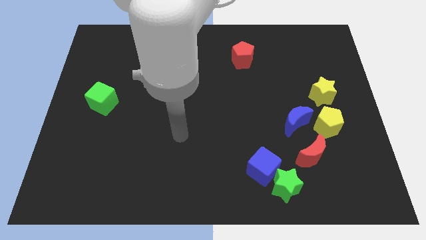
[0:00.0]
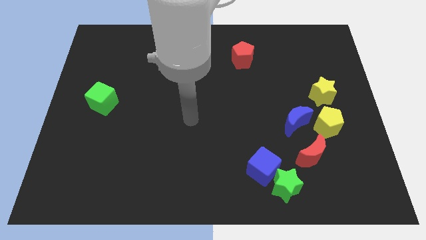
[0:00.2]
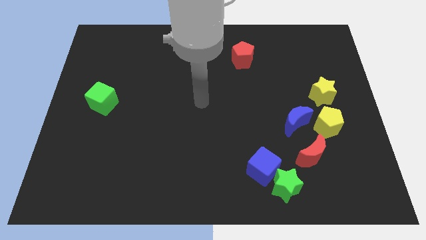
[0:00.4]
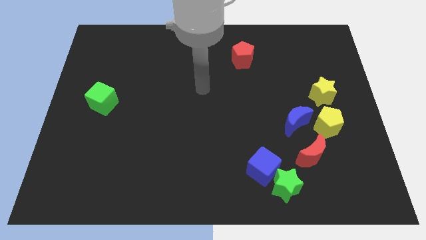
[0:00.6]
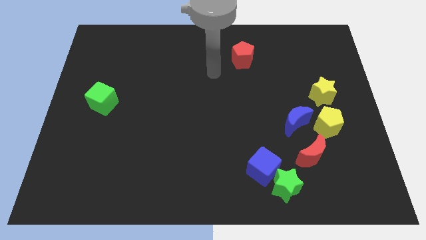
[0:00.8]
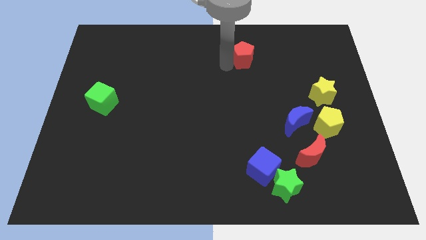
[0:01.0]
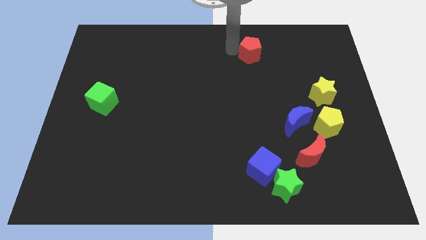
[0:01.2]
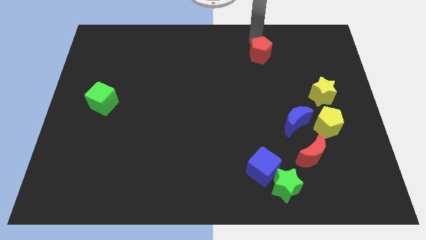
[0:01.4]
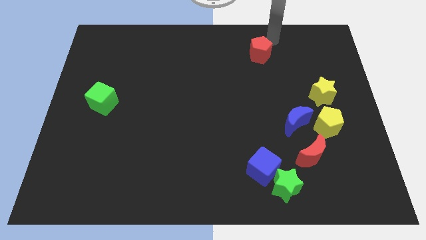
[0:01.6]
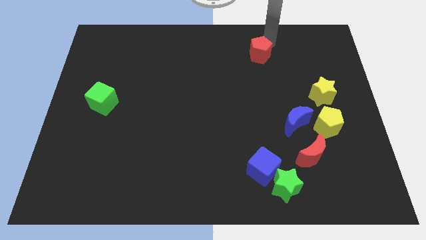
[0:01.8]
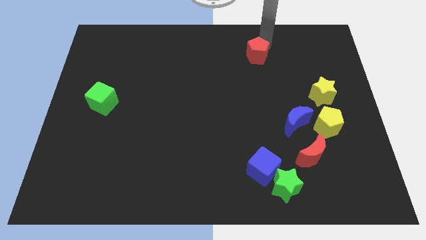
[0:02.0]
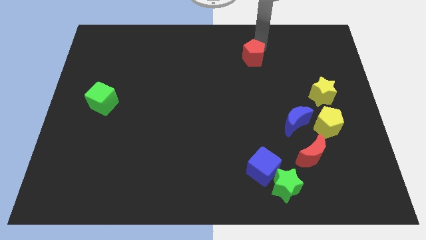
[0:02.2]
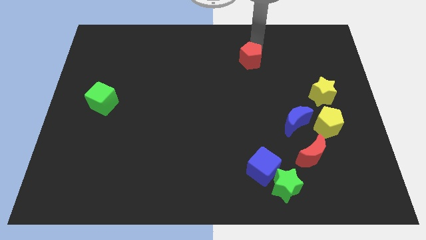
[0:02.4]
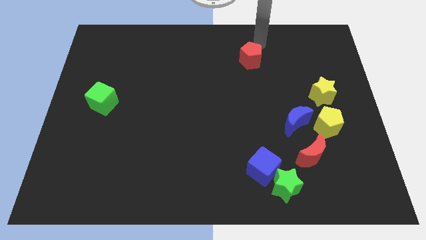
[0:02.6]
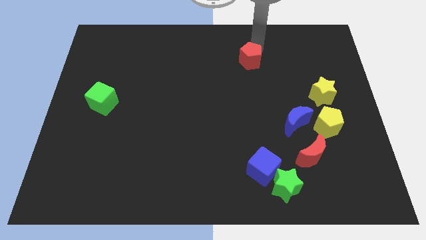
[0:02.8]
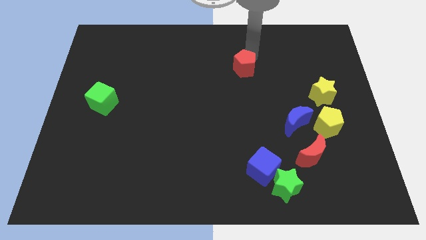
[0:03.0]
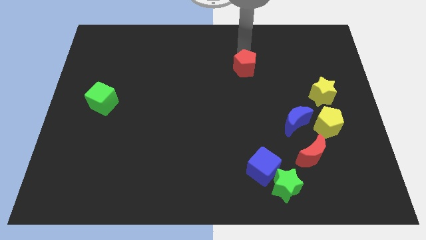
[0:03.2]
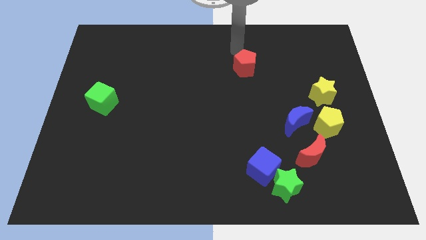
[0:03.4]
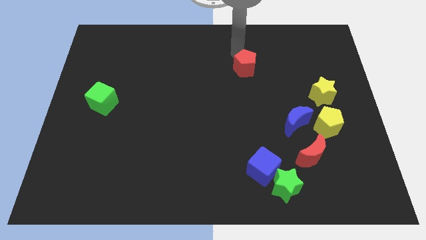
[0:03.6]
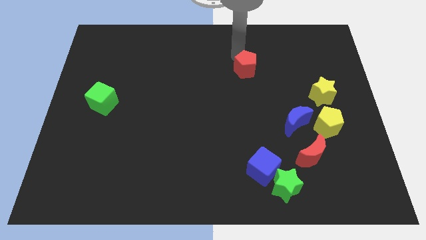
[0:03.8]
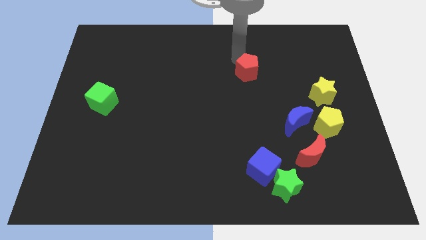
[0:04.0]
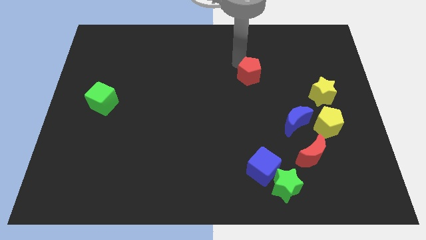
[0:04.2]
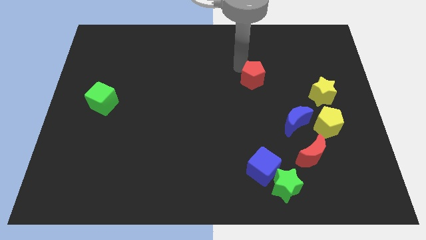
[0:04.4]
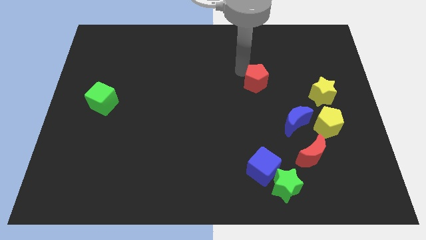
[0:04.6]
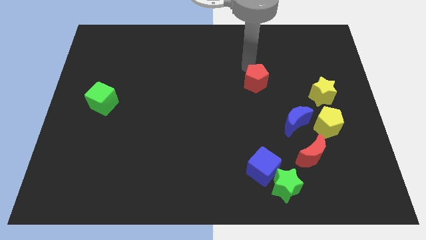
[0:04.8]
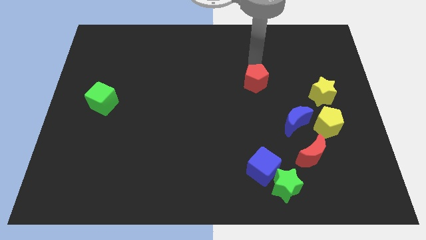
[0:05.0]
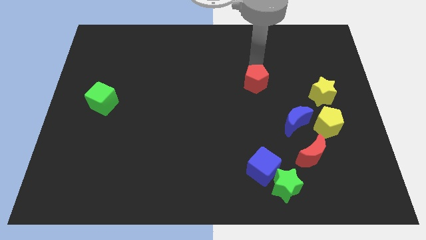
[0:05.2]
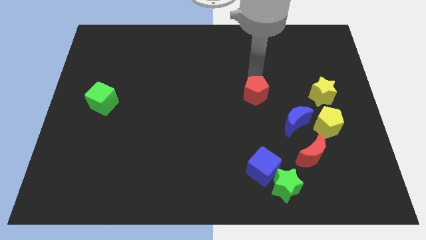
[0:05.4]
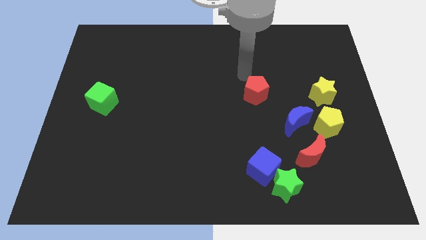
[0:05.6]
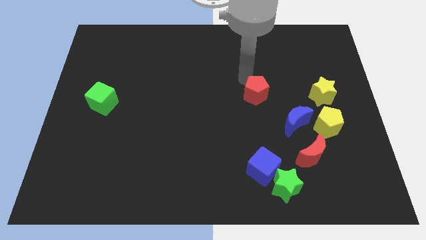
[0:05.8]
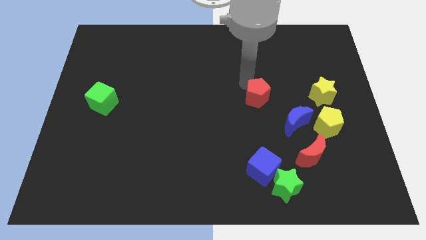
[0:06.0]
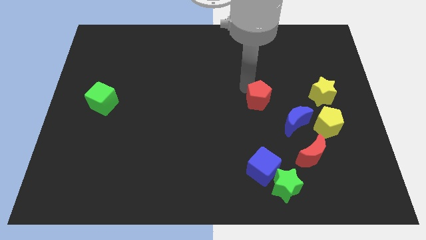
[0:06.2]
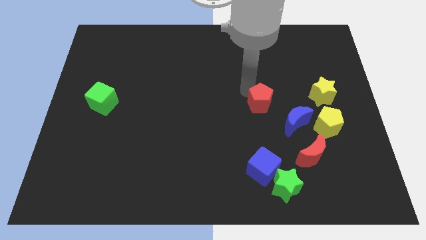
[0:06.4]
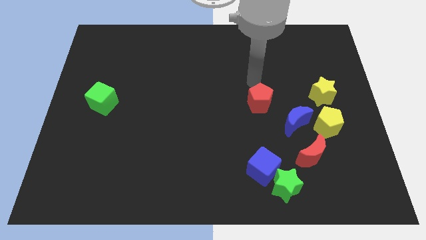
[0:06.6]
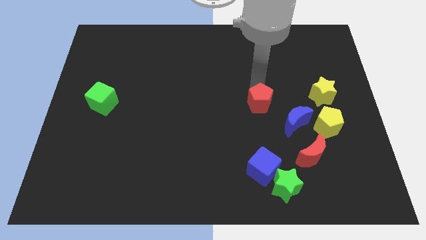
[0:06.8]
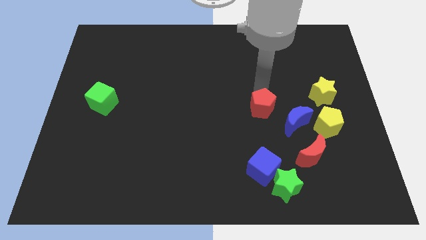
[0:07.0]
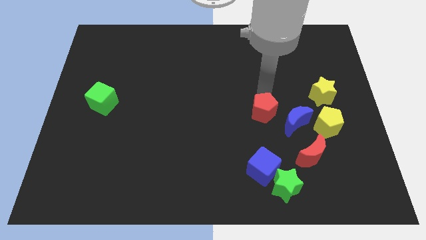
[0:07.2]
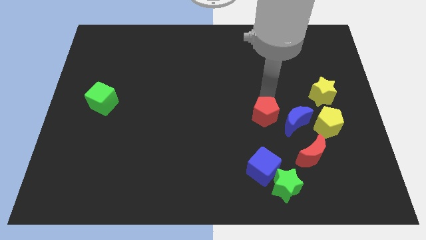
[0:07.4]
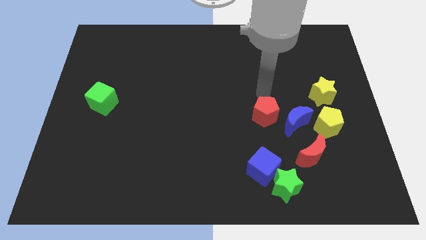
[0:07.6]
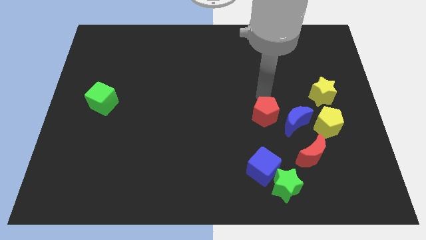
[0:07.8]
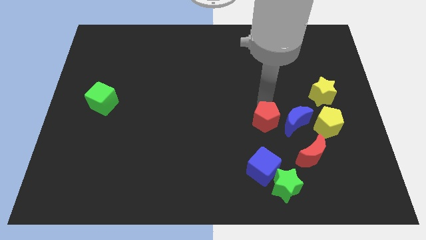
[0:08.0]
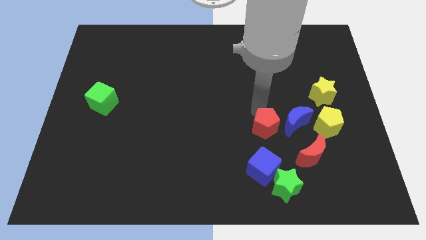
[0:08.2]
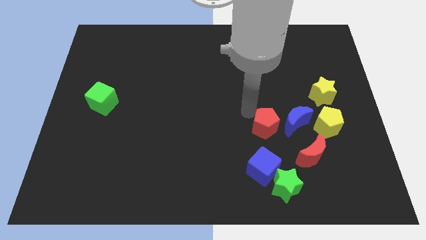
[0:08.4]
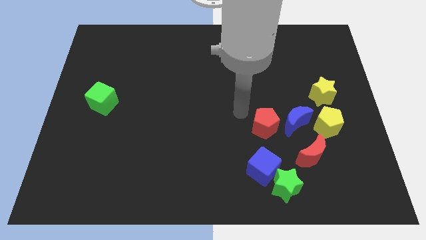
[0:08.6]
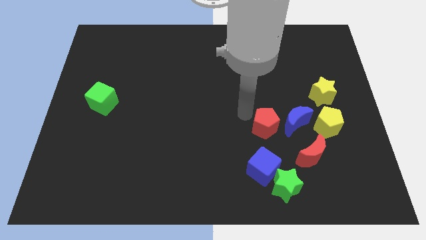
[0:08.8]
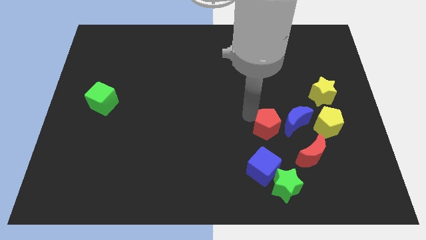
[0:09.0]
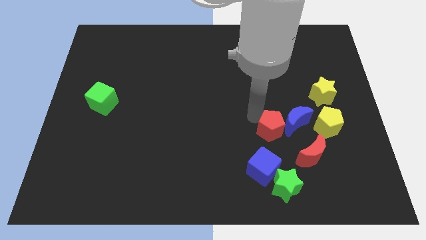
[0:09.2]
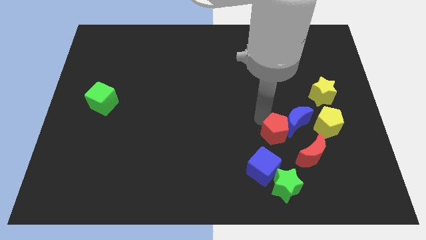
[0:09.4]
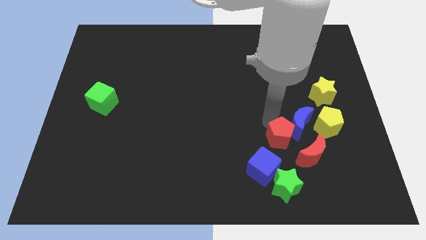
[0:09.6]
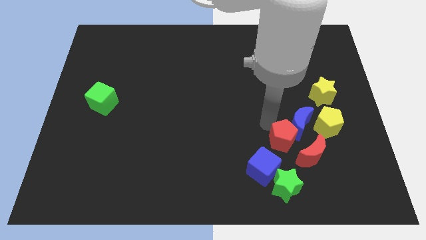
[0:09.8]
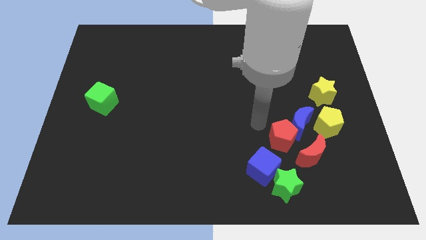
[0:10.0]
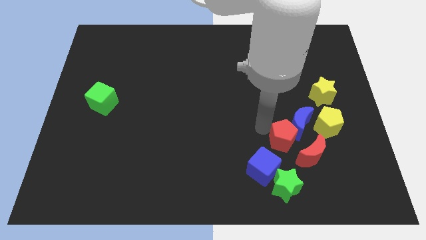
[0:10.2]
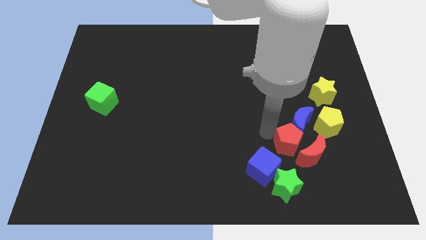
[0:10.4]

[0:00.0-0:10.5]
put the red pentagon towards the red moon

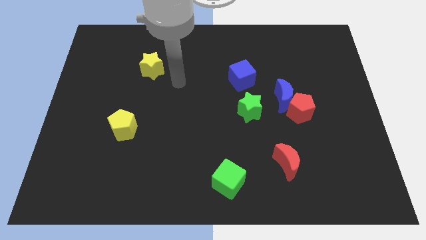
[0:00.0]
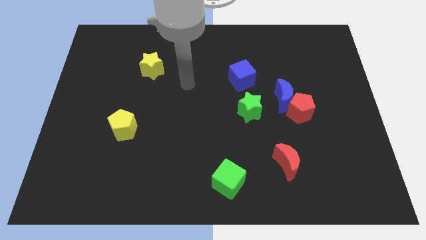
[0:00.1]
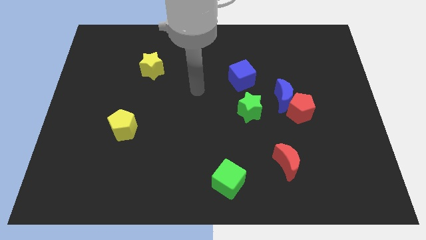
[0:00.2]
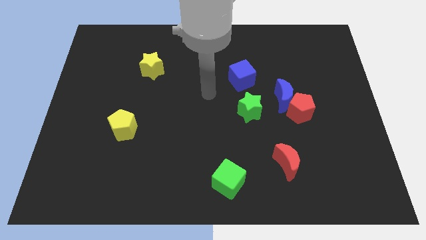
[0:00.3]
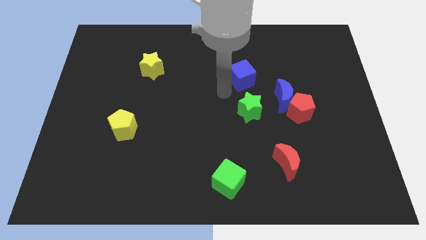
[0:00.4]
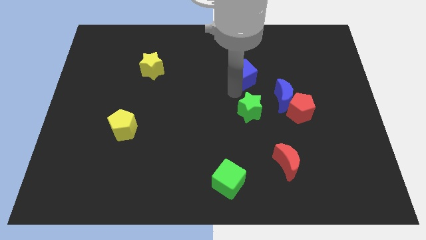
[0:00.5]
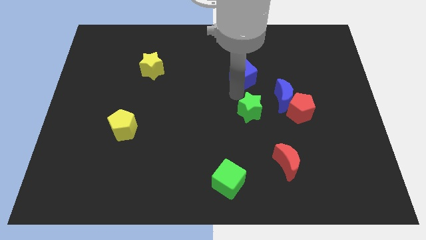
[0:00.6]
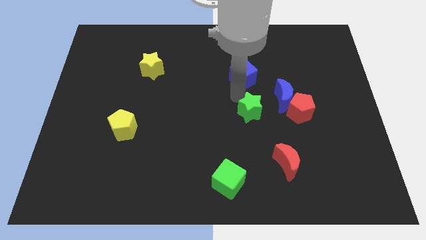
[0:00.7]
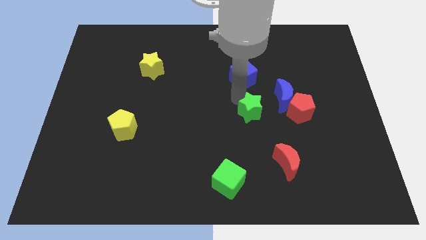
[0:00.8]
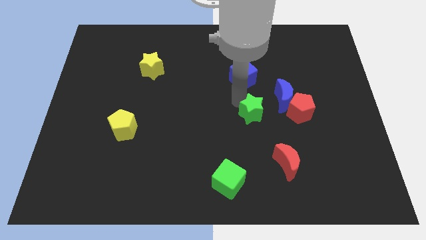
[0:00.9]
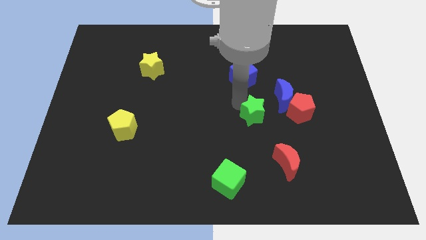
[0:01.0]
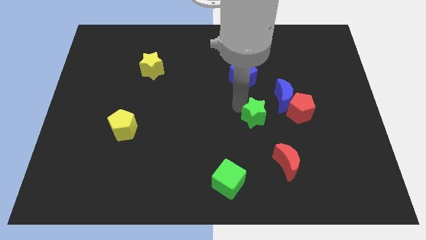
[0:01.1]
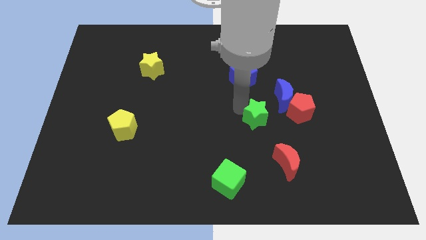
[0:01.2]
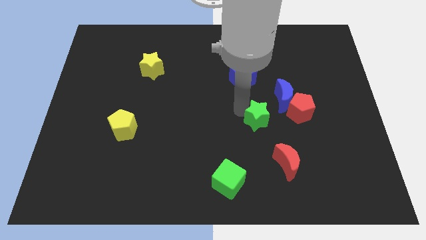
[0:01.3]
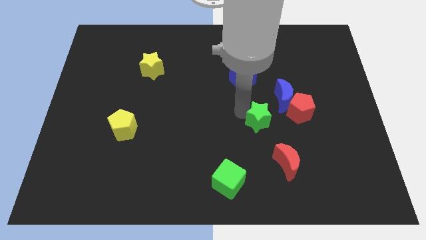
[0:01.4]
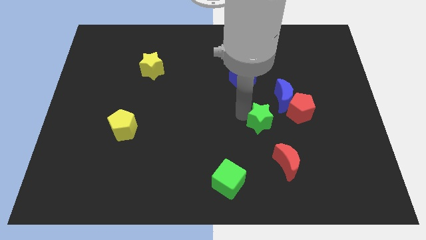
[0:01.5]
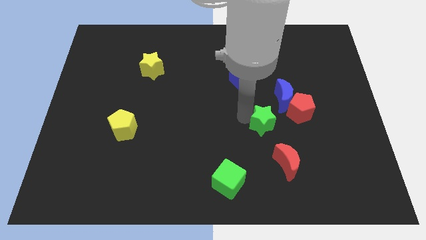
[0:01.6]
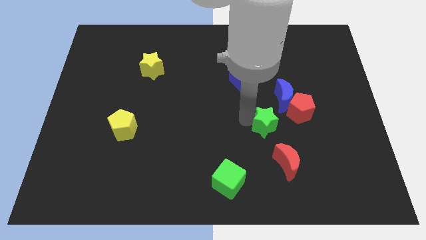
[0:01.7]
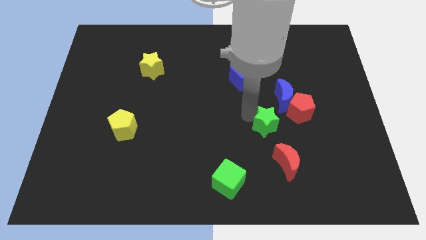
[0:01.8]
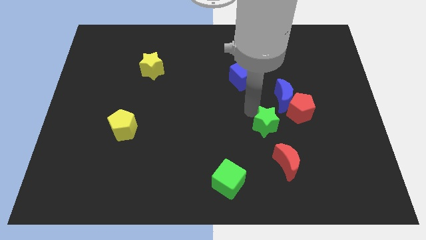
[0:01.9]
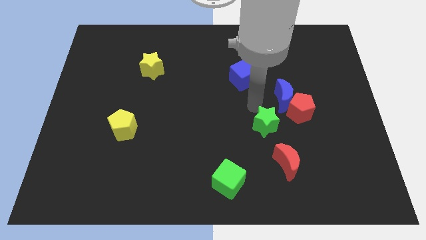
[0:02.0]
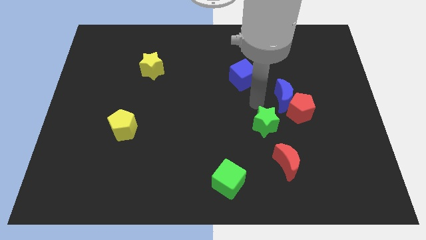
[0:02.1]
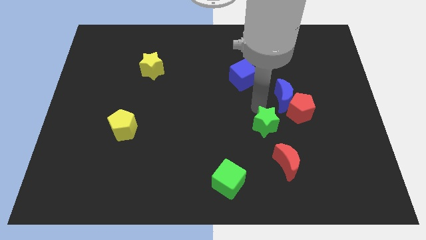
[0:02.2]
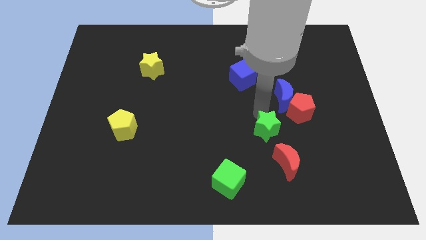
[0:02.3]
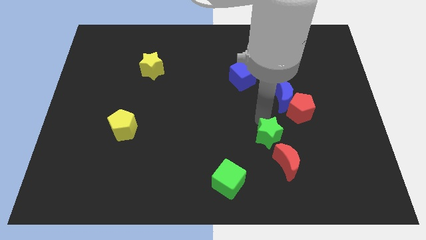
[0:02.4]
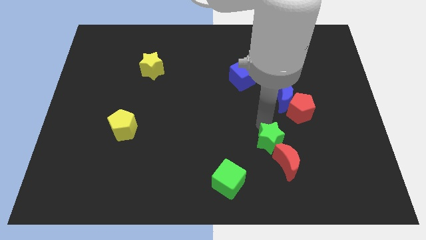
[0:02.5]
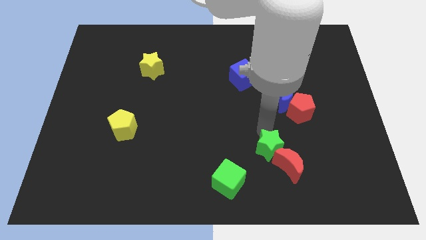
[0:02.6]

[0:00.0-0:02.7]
push the green star next to the red moon

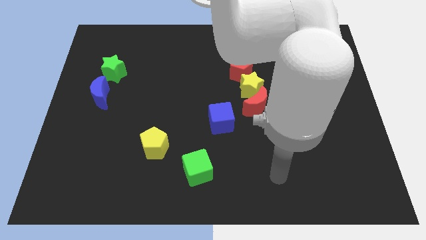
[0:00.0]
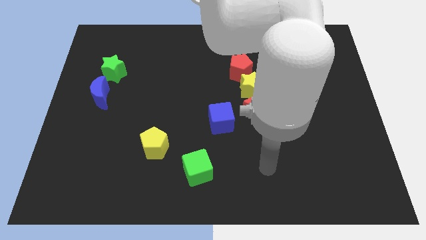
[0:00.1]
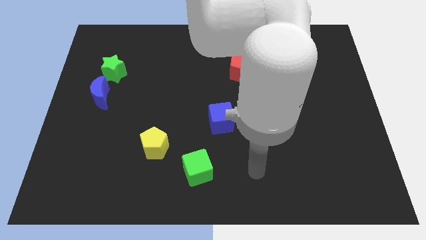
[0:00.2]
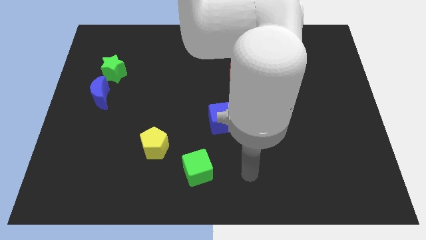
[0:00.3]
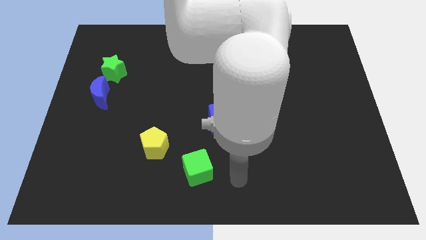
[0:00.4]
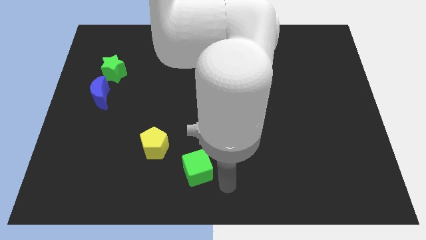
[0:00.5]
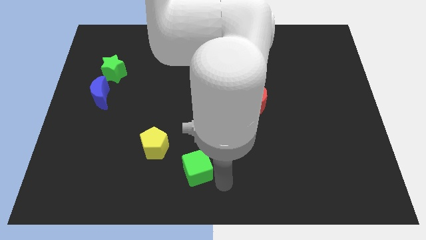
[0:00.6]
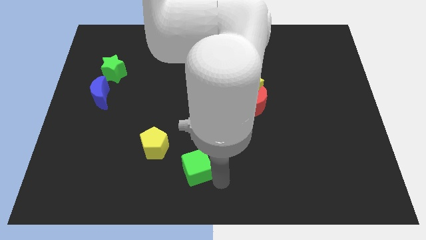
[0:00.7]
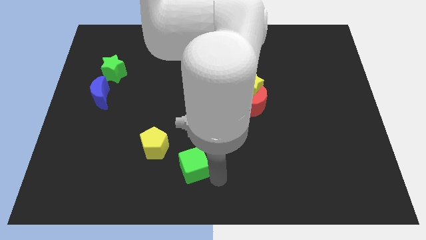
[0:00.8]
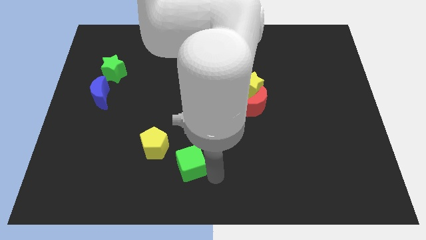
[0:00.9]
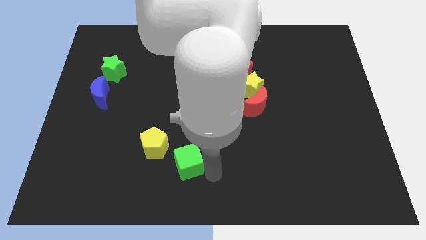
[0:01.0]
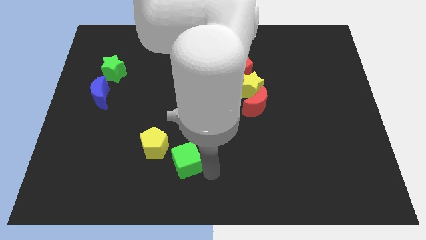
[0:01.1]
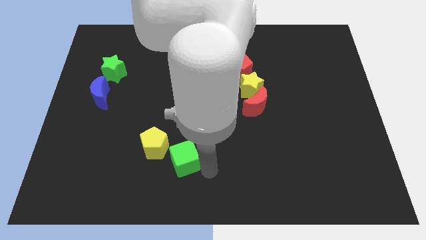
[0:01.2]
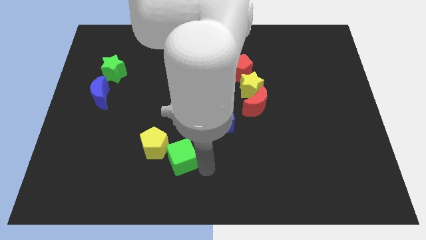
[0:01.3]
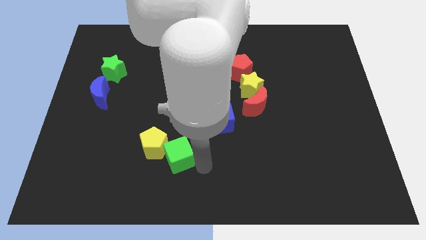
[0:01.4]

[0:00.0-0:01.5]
move the green cube next to the yellow pentagon
